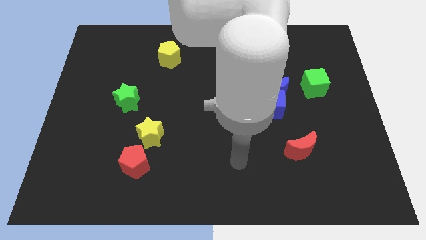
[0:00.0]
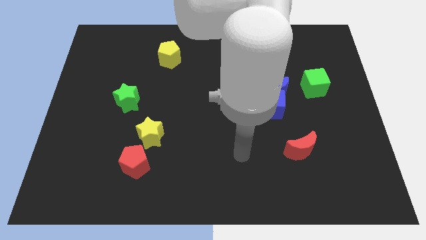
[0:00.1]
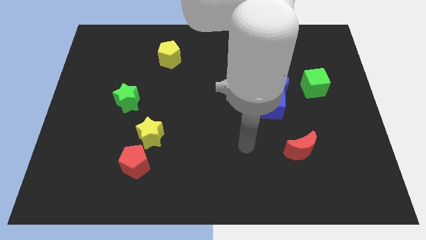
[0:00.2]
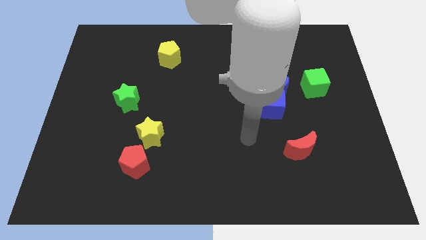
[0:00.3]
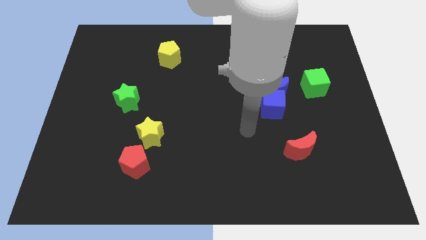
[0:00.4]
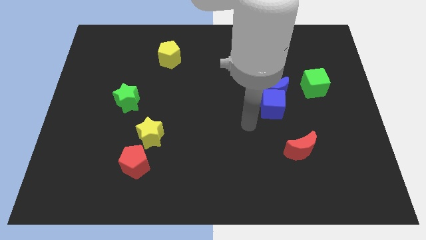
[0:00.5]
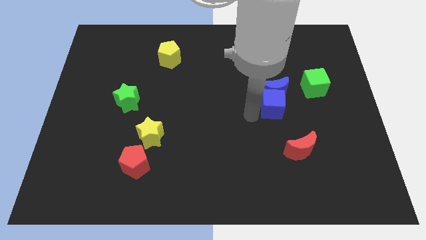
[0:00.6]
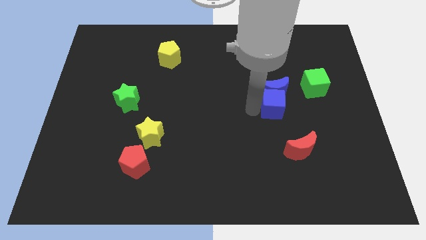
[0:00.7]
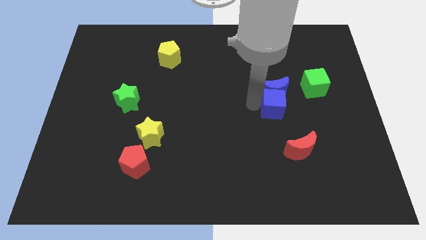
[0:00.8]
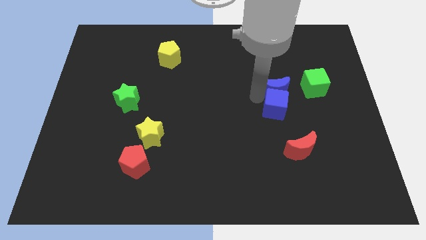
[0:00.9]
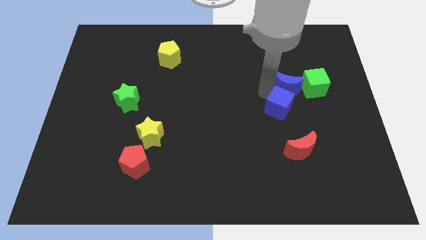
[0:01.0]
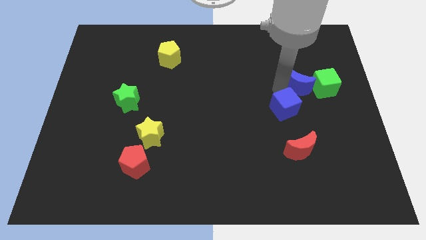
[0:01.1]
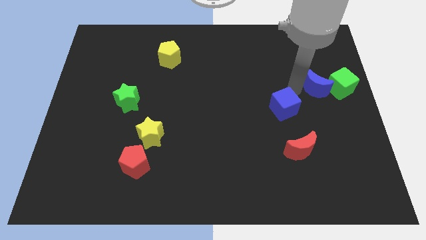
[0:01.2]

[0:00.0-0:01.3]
move the blue cube away from the blue moon

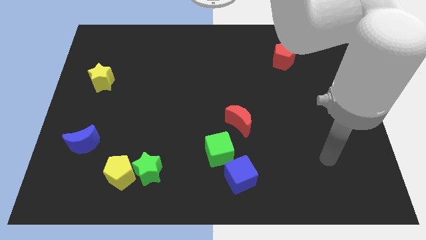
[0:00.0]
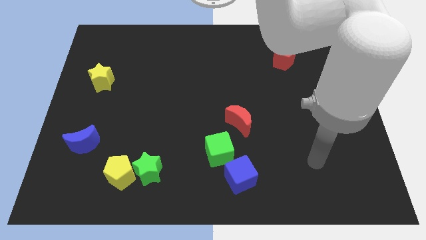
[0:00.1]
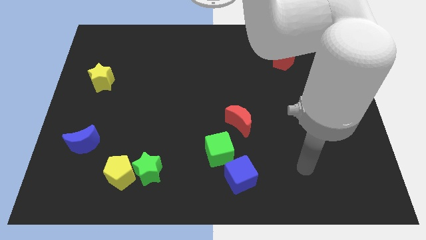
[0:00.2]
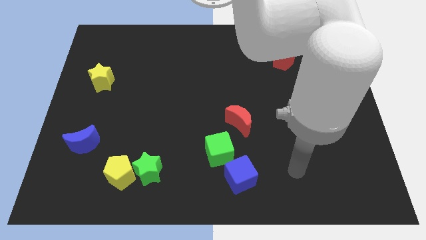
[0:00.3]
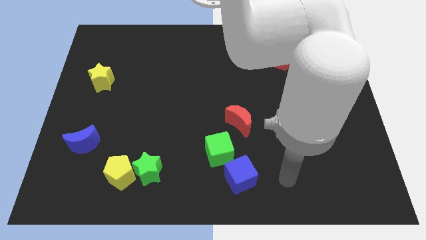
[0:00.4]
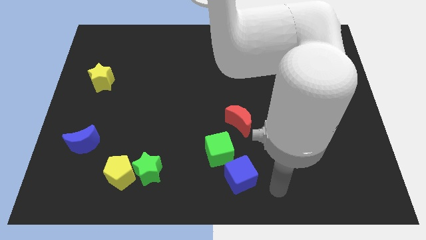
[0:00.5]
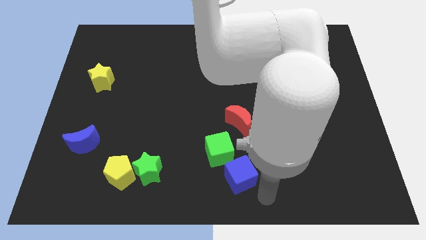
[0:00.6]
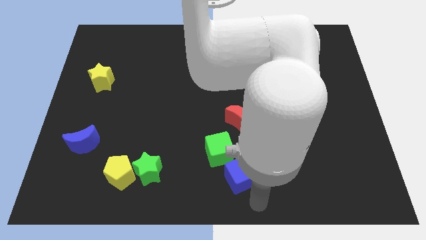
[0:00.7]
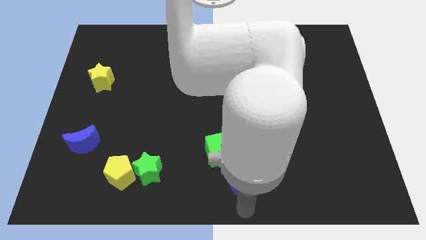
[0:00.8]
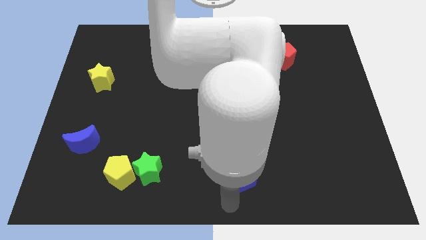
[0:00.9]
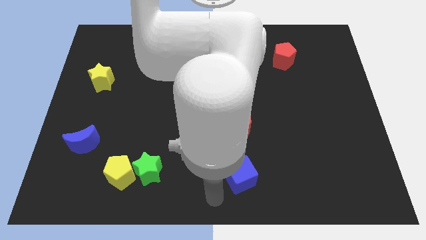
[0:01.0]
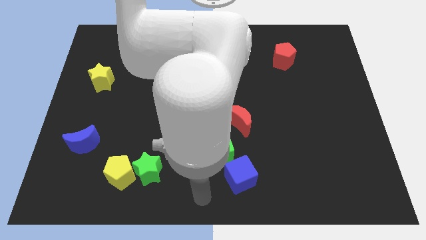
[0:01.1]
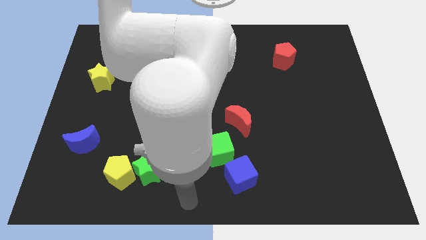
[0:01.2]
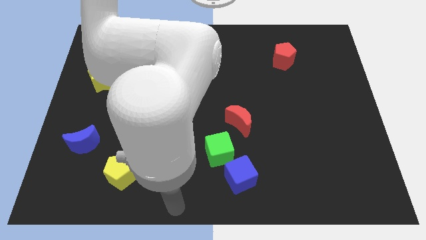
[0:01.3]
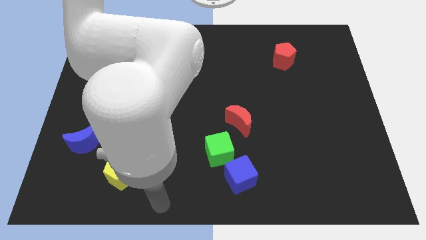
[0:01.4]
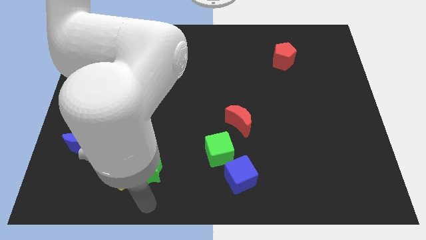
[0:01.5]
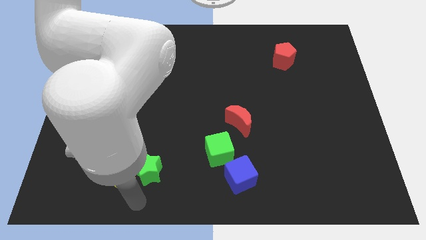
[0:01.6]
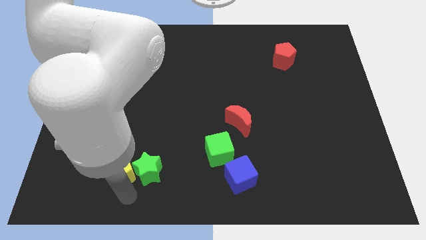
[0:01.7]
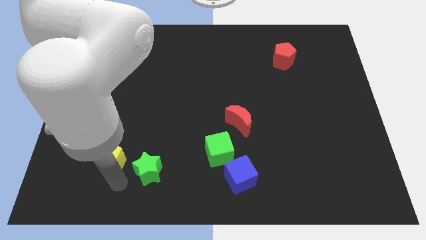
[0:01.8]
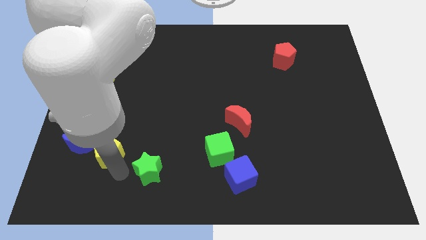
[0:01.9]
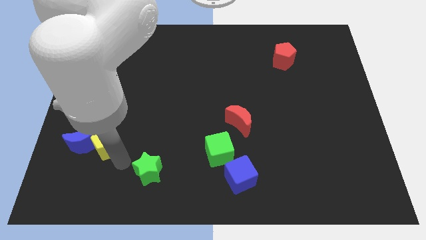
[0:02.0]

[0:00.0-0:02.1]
pull the green star apart from the yellow pentagon

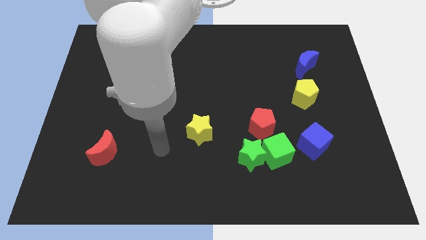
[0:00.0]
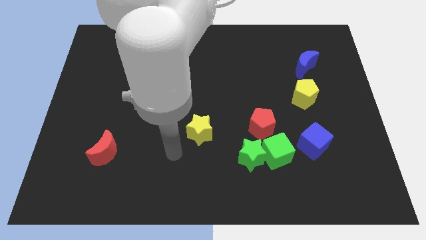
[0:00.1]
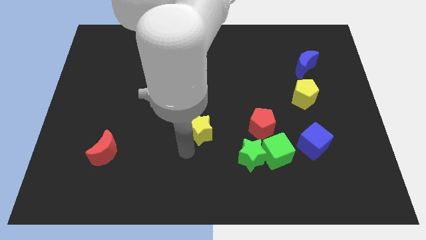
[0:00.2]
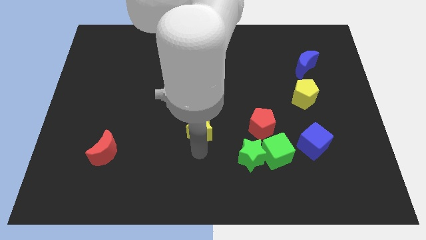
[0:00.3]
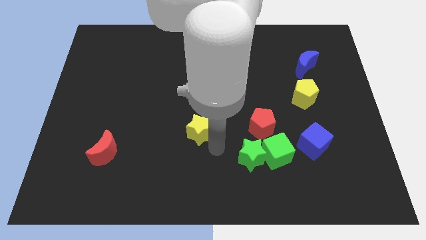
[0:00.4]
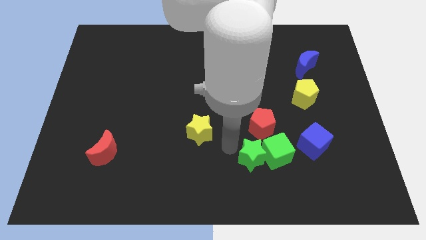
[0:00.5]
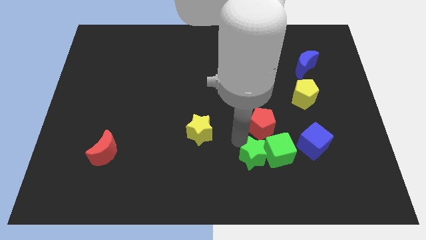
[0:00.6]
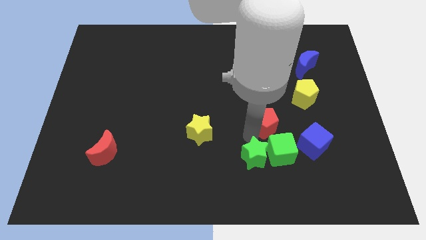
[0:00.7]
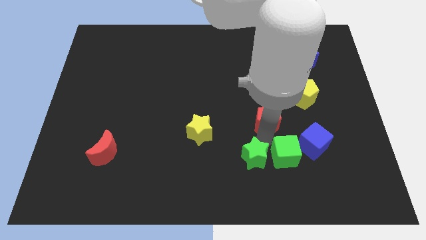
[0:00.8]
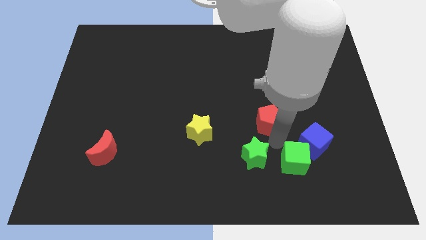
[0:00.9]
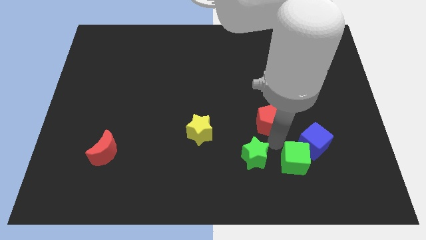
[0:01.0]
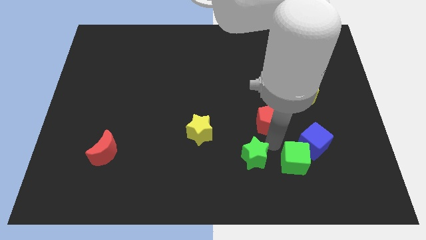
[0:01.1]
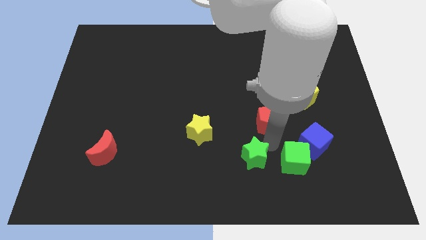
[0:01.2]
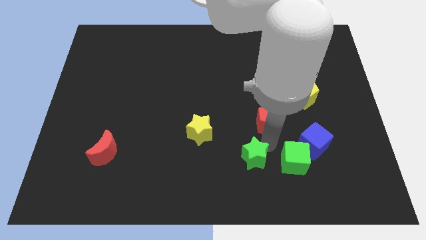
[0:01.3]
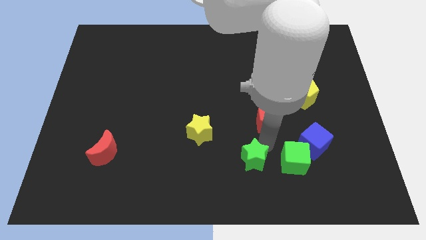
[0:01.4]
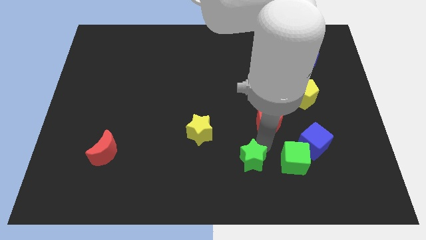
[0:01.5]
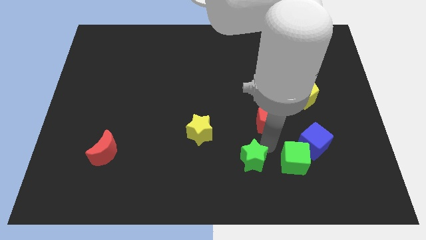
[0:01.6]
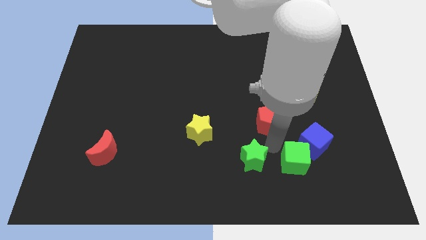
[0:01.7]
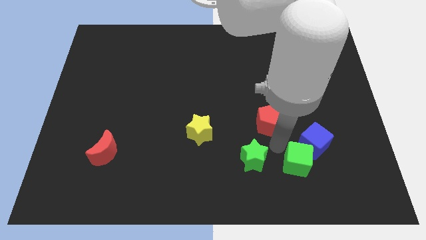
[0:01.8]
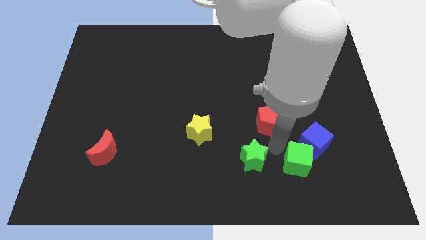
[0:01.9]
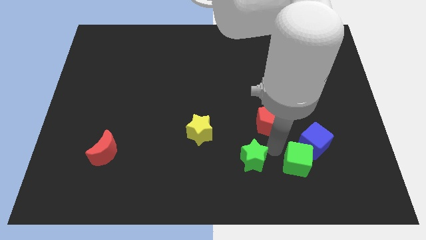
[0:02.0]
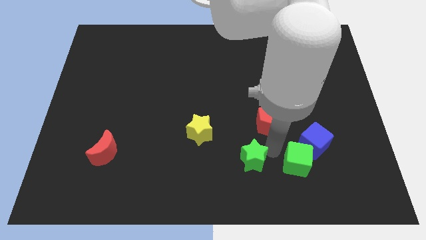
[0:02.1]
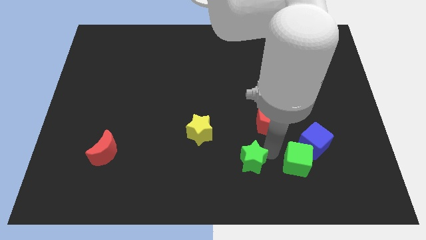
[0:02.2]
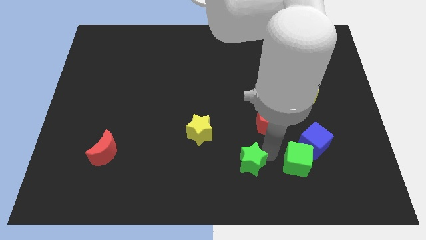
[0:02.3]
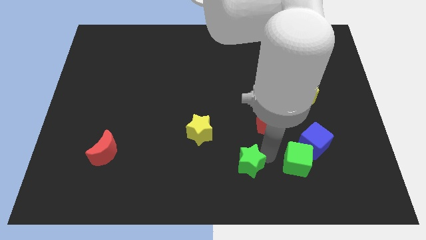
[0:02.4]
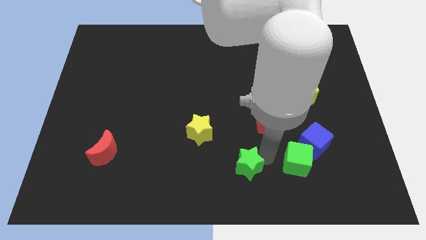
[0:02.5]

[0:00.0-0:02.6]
separate the green star from the green cube and red pentagon

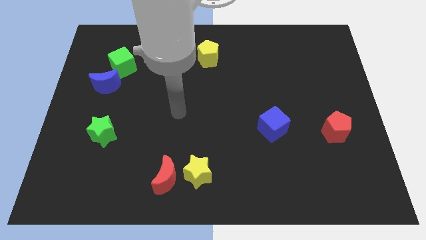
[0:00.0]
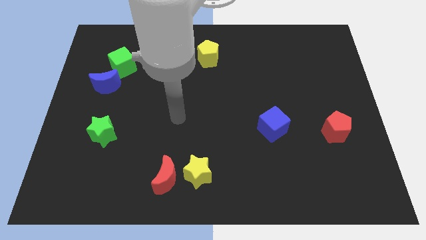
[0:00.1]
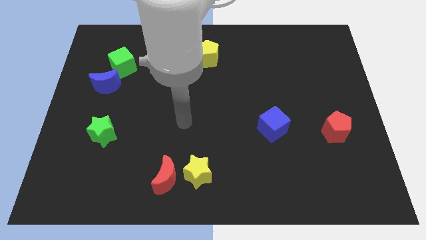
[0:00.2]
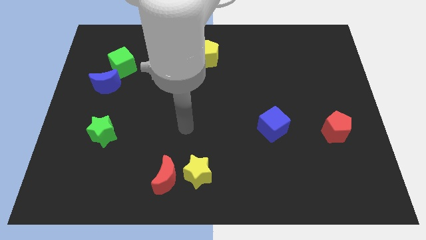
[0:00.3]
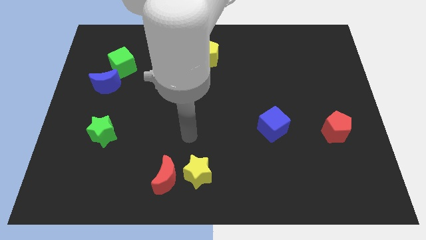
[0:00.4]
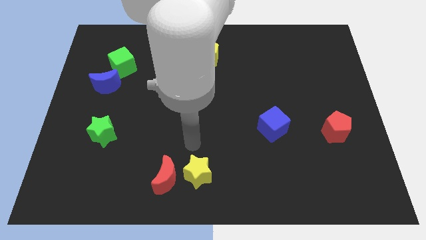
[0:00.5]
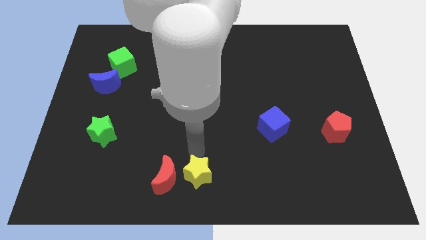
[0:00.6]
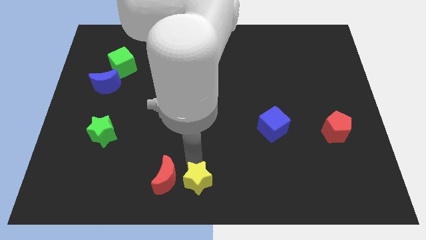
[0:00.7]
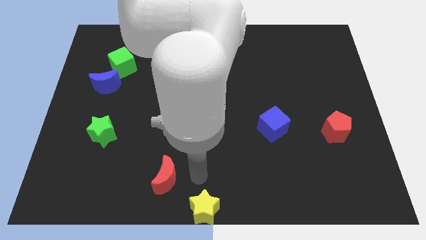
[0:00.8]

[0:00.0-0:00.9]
pull the red moon apart from the yellow star

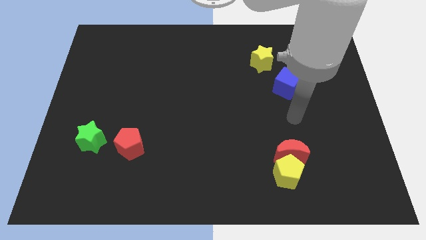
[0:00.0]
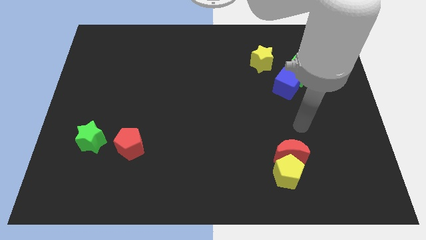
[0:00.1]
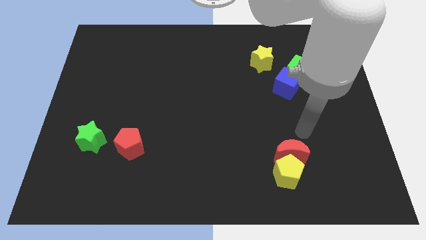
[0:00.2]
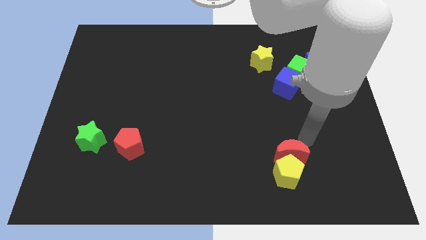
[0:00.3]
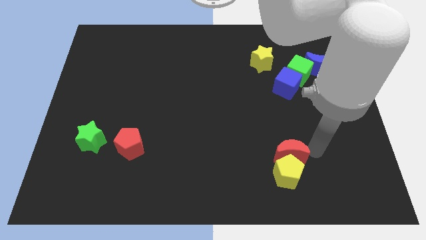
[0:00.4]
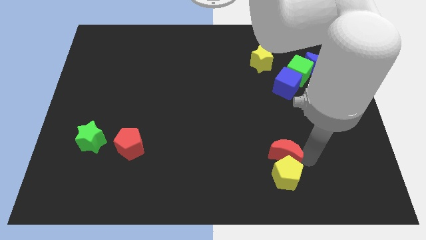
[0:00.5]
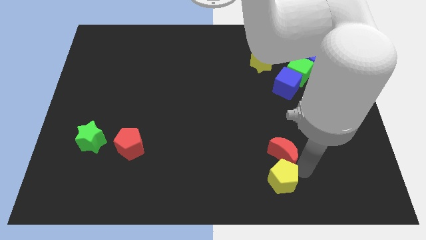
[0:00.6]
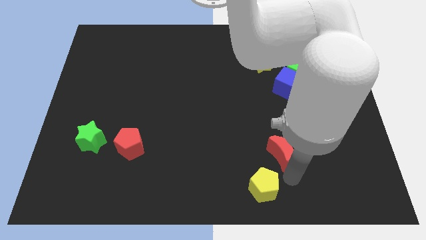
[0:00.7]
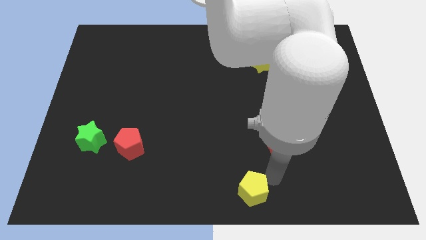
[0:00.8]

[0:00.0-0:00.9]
pull the red moon apart from the yellow pentagon

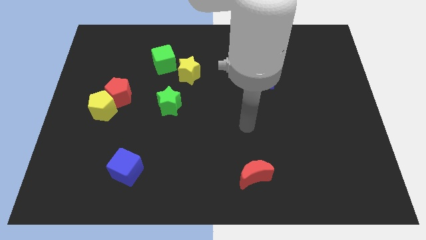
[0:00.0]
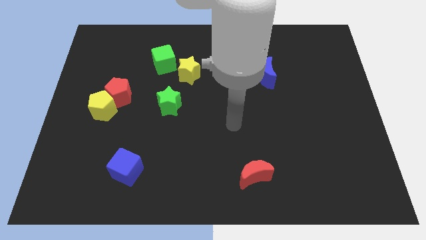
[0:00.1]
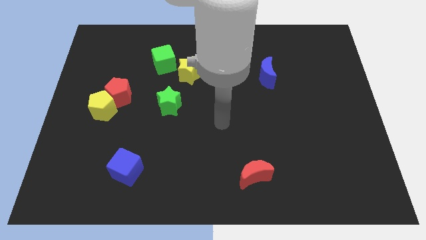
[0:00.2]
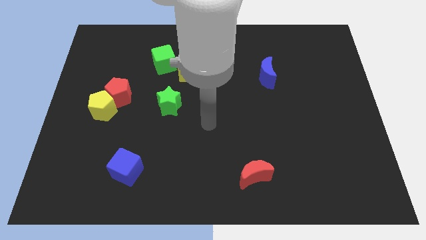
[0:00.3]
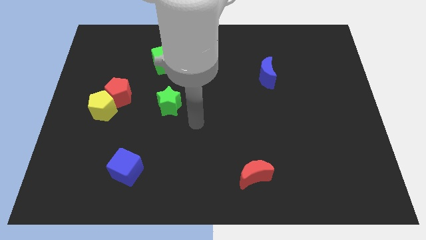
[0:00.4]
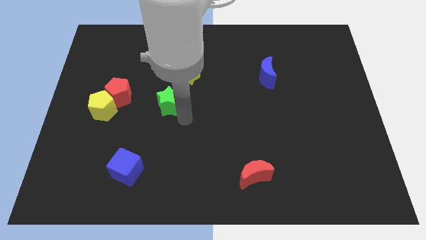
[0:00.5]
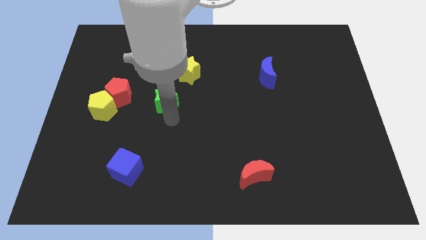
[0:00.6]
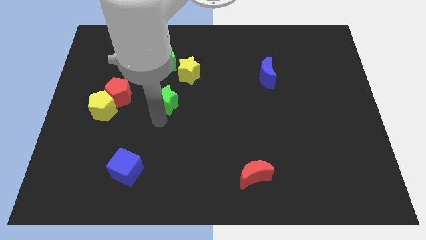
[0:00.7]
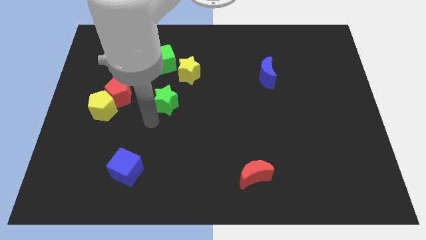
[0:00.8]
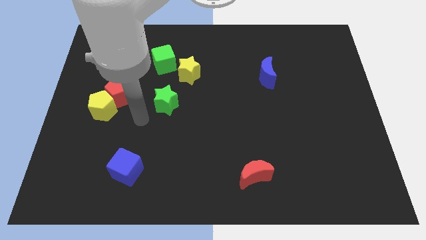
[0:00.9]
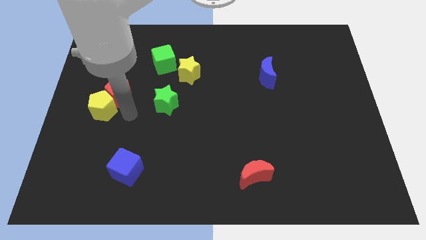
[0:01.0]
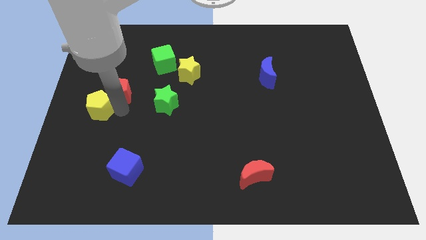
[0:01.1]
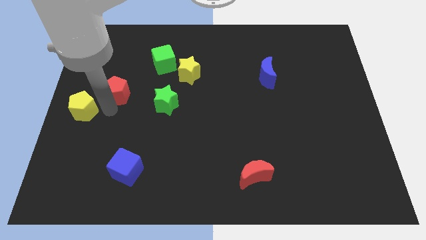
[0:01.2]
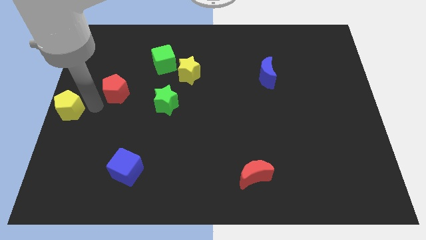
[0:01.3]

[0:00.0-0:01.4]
move the red pentagon away from the yellow pentagon

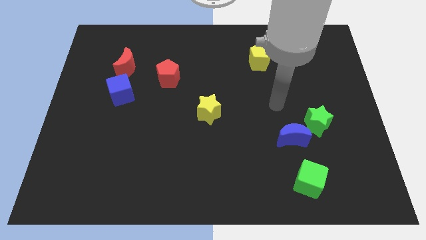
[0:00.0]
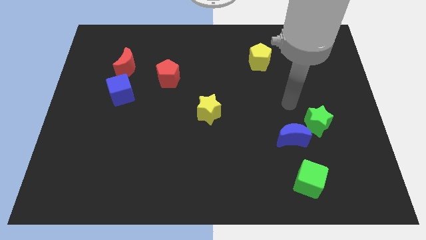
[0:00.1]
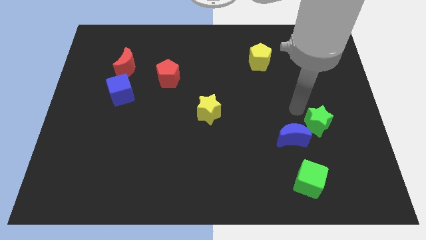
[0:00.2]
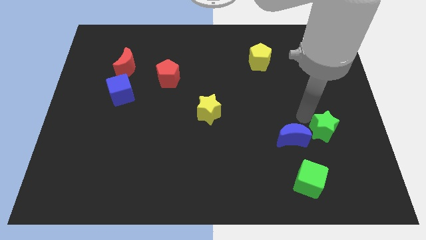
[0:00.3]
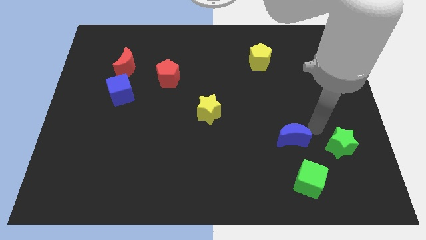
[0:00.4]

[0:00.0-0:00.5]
pull the blue moon apart from the green star
